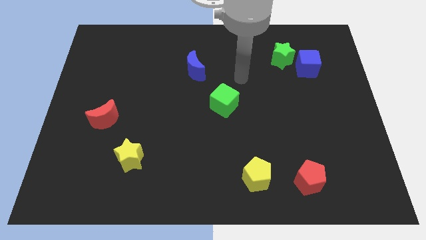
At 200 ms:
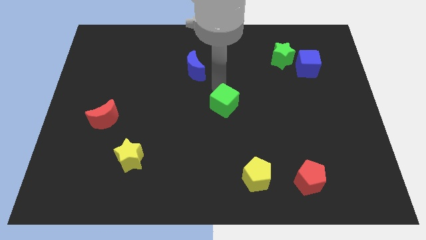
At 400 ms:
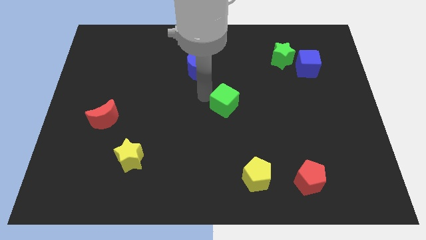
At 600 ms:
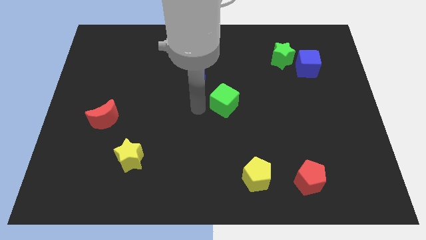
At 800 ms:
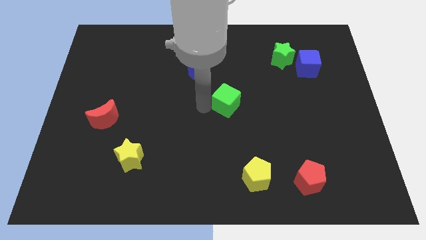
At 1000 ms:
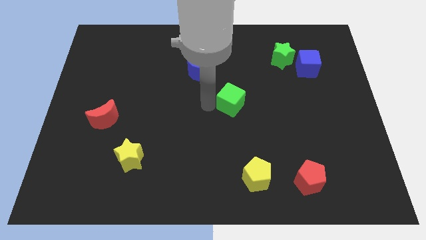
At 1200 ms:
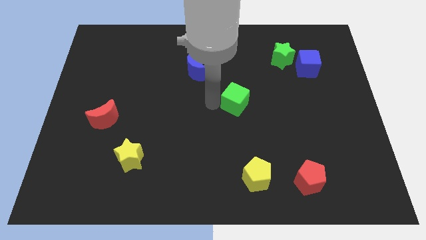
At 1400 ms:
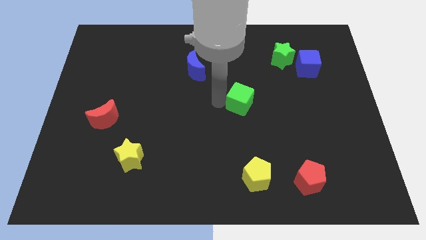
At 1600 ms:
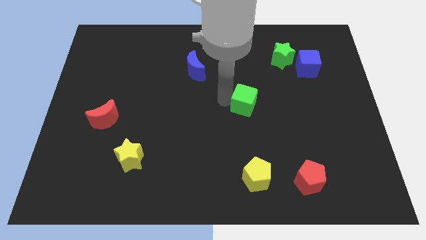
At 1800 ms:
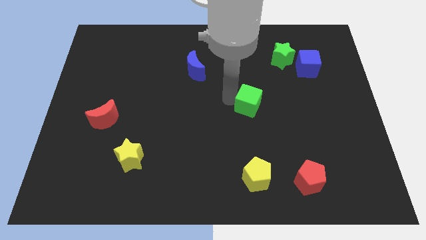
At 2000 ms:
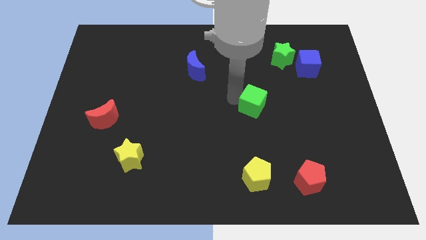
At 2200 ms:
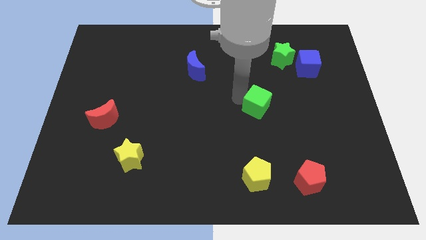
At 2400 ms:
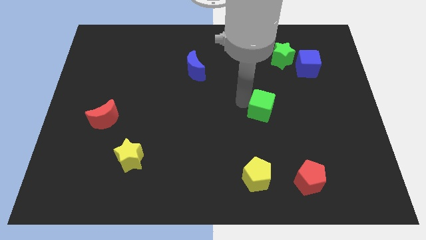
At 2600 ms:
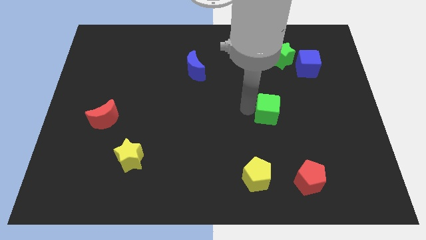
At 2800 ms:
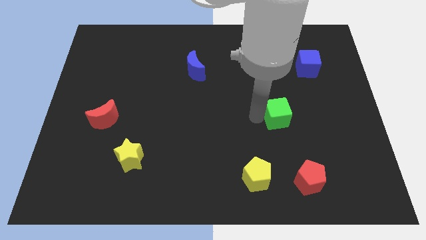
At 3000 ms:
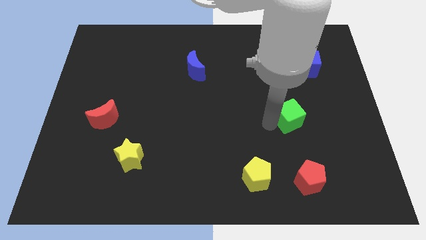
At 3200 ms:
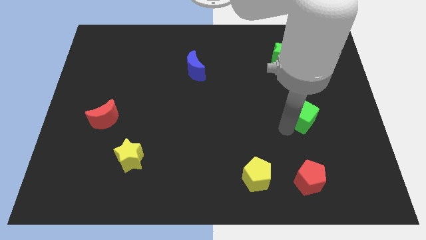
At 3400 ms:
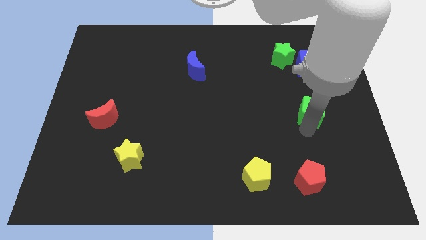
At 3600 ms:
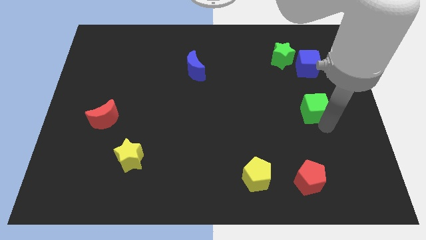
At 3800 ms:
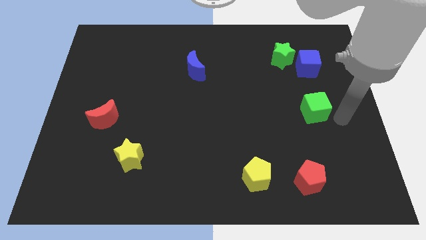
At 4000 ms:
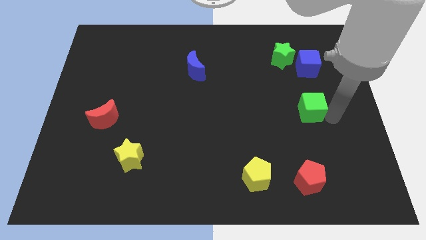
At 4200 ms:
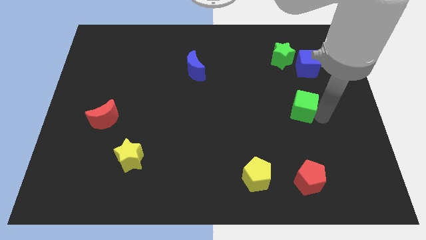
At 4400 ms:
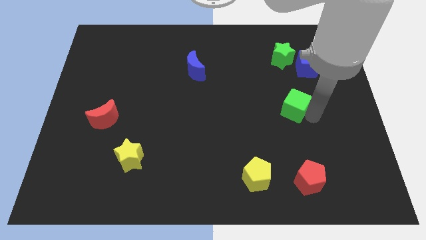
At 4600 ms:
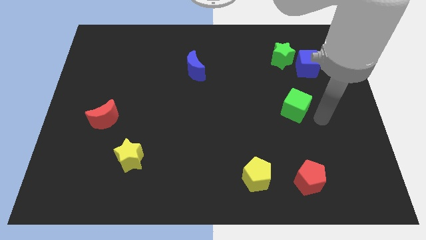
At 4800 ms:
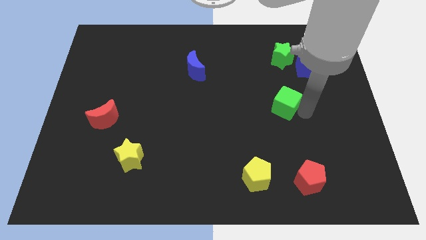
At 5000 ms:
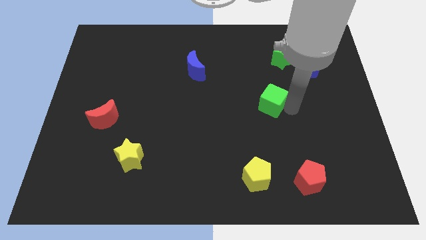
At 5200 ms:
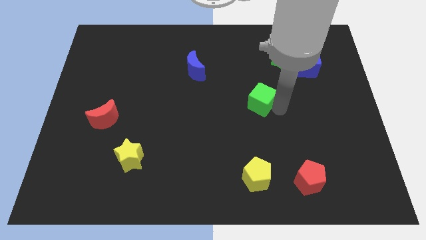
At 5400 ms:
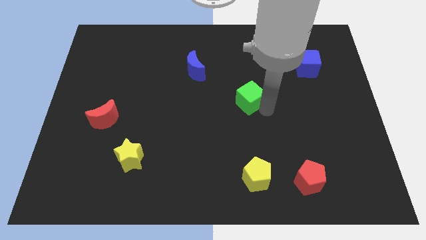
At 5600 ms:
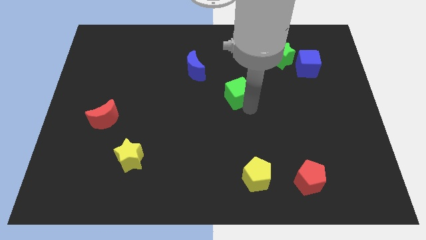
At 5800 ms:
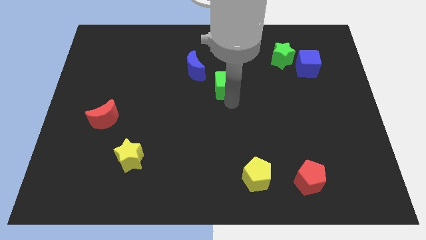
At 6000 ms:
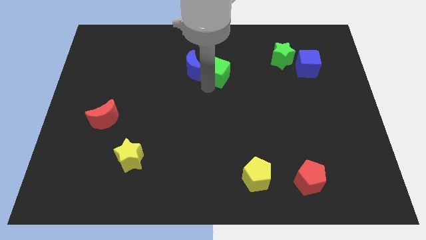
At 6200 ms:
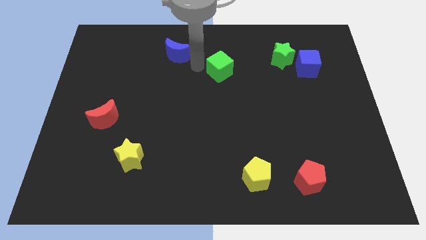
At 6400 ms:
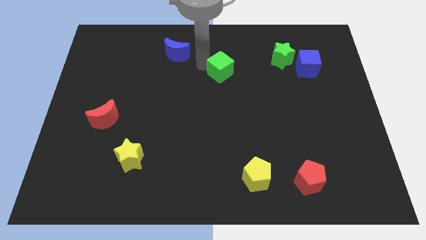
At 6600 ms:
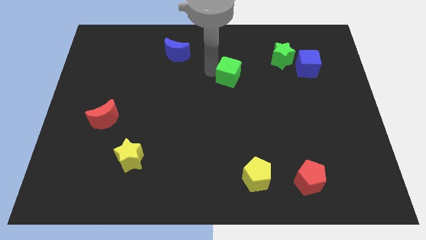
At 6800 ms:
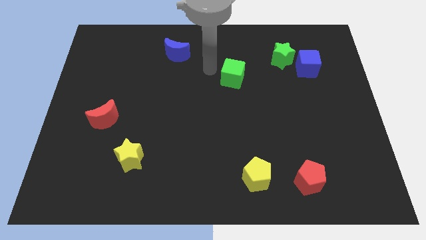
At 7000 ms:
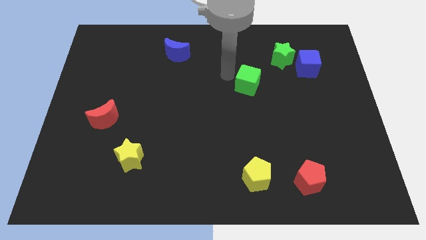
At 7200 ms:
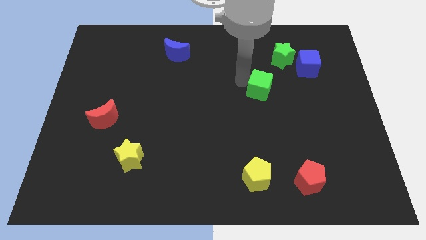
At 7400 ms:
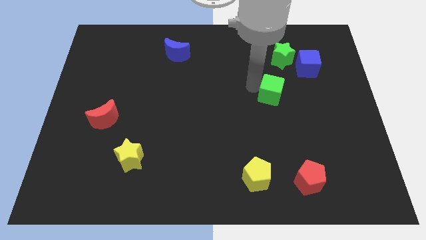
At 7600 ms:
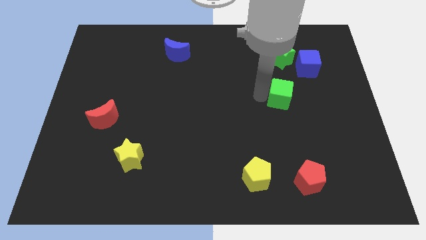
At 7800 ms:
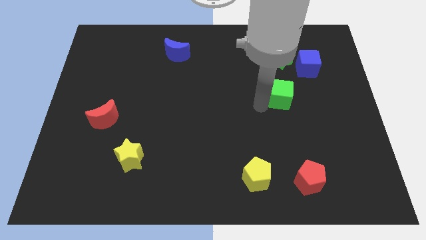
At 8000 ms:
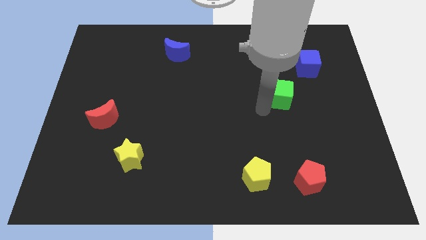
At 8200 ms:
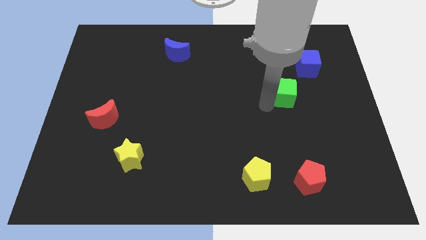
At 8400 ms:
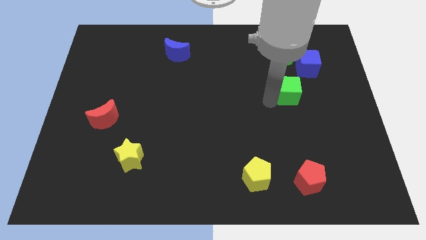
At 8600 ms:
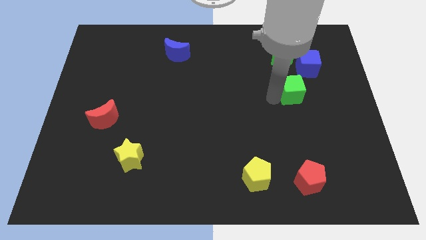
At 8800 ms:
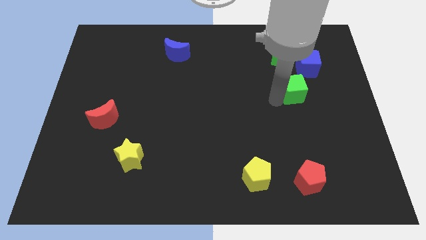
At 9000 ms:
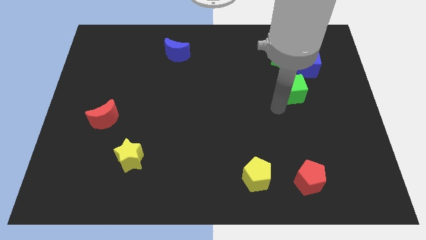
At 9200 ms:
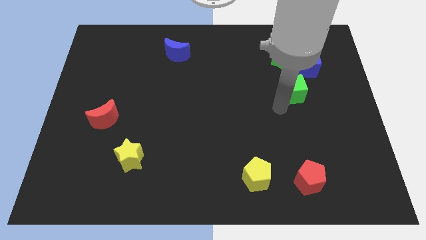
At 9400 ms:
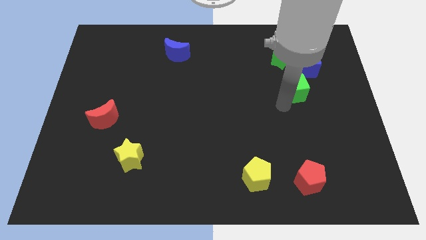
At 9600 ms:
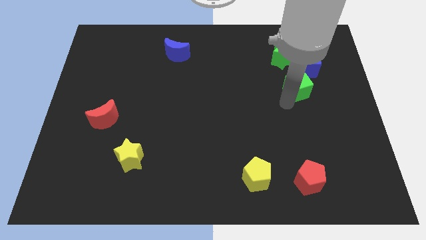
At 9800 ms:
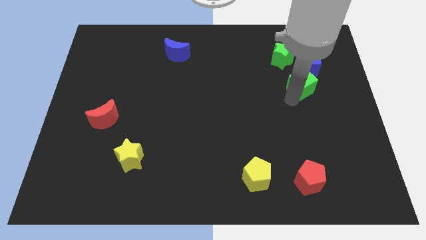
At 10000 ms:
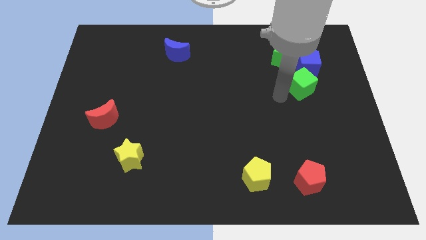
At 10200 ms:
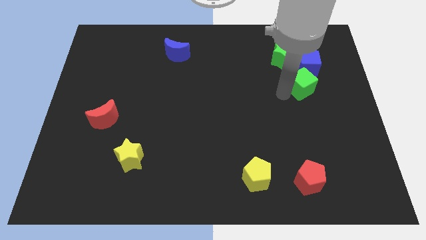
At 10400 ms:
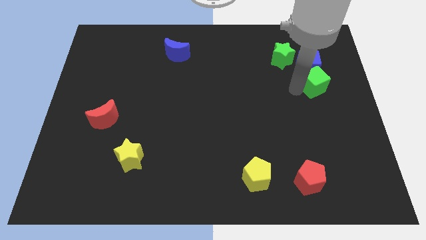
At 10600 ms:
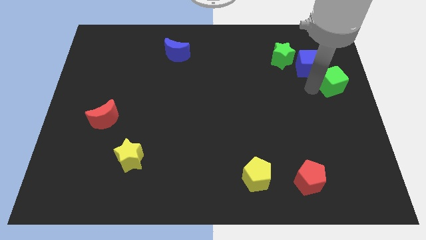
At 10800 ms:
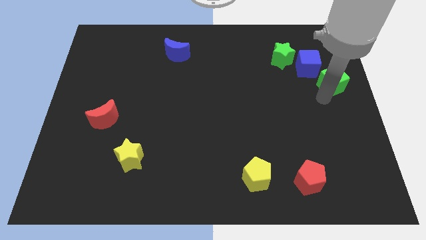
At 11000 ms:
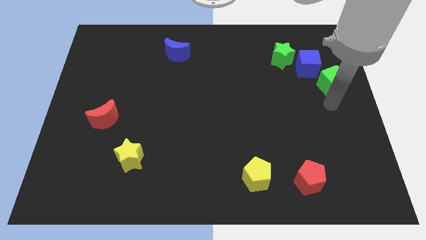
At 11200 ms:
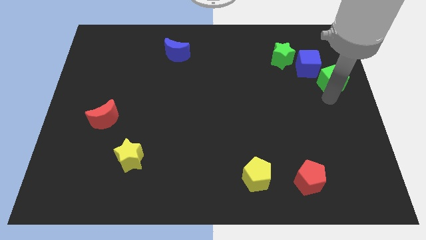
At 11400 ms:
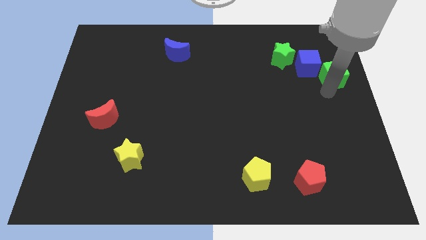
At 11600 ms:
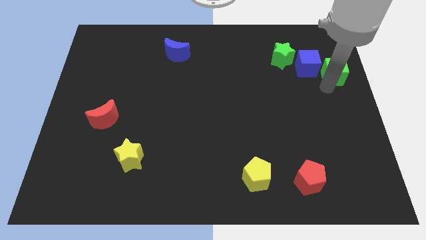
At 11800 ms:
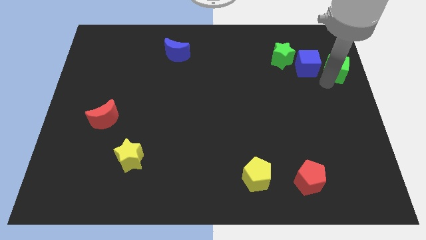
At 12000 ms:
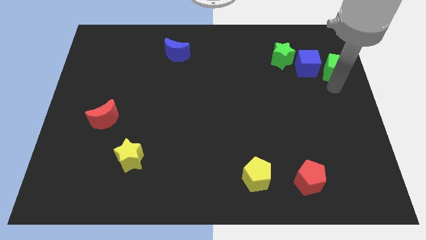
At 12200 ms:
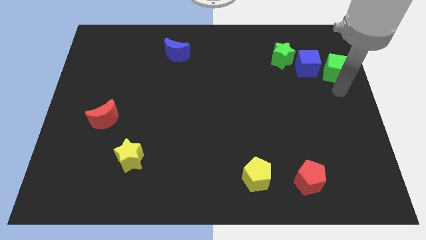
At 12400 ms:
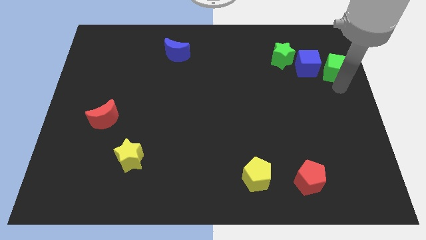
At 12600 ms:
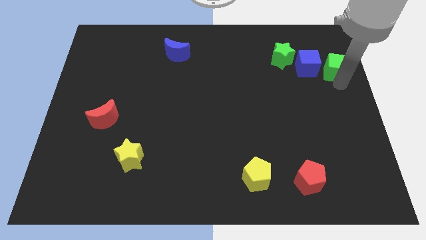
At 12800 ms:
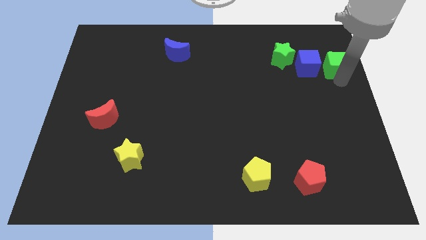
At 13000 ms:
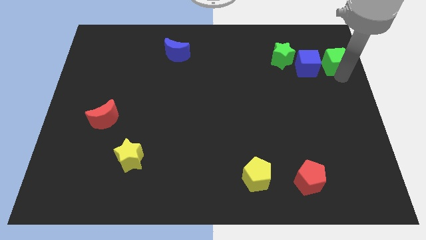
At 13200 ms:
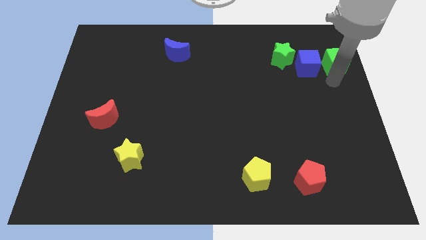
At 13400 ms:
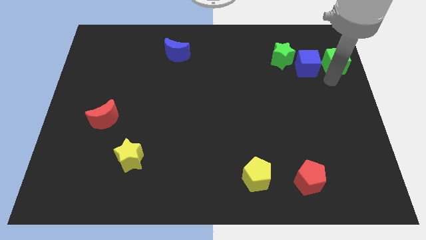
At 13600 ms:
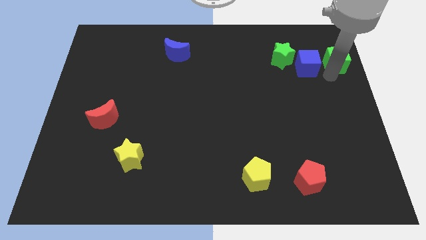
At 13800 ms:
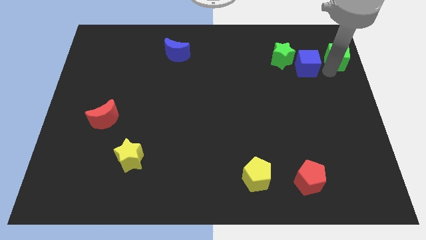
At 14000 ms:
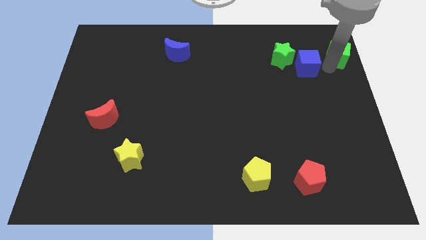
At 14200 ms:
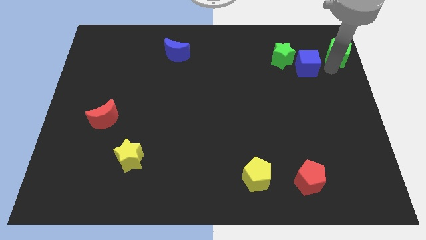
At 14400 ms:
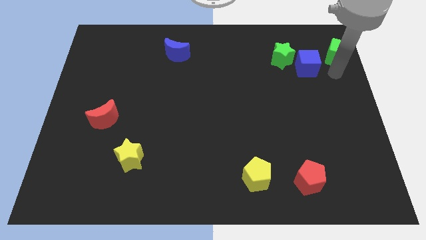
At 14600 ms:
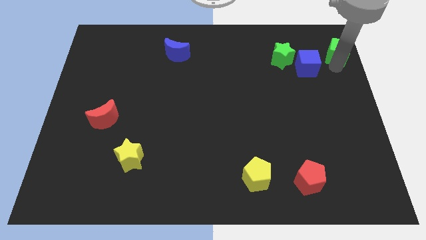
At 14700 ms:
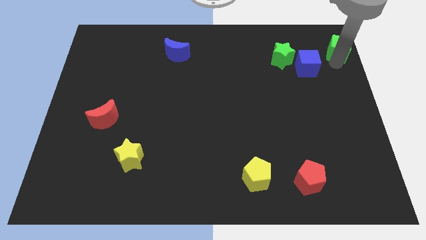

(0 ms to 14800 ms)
push the green cube to the top right of the board
